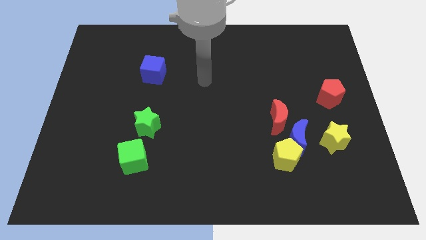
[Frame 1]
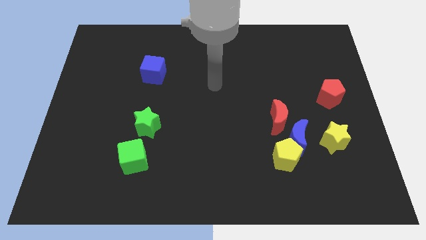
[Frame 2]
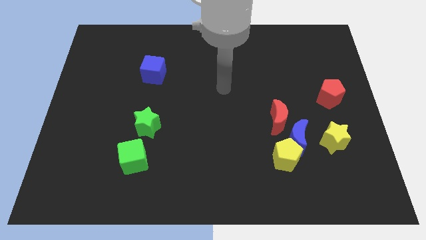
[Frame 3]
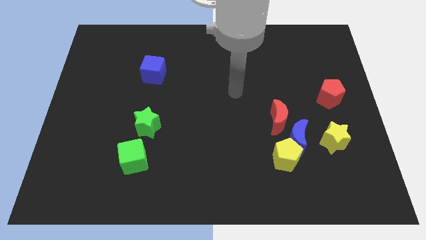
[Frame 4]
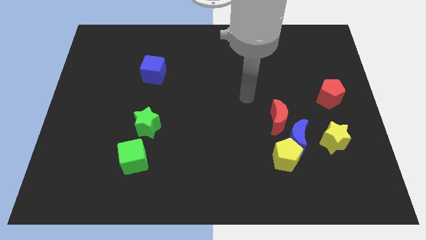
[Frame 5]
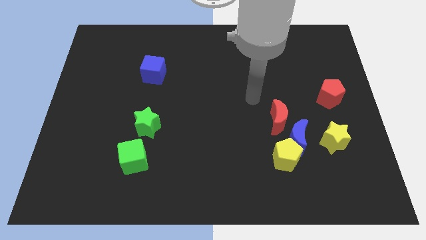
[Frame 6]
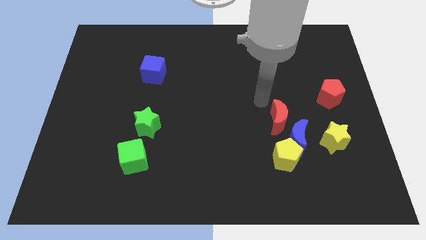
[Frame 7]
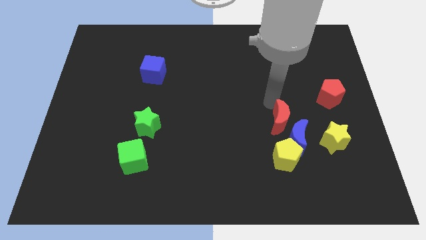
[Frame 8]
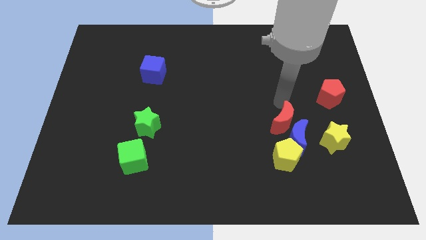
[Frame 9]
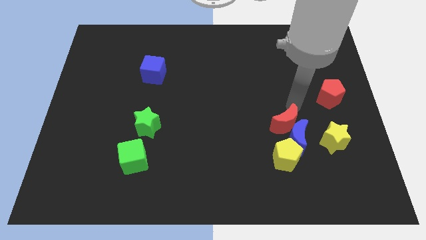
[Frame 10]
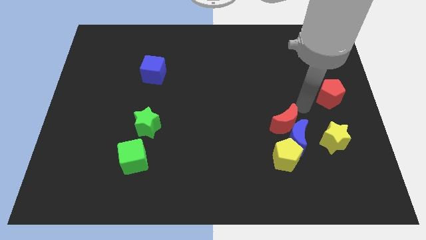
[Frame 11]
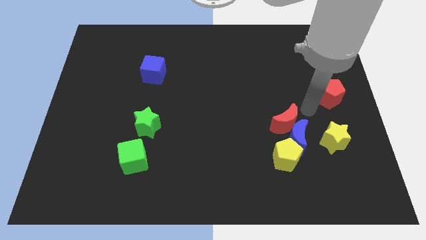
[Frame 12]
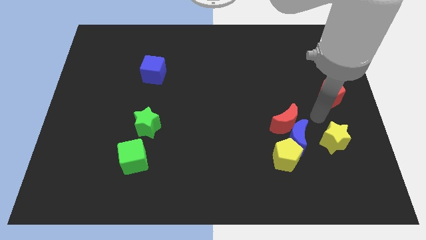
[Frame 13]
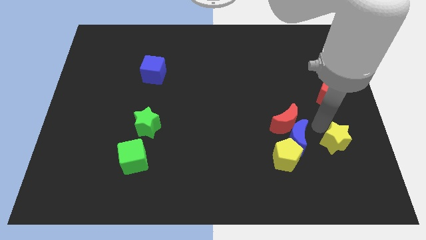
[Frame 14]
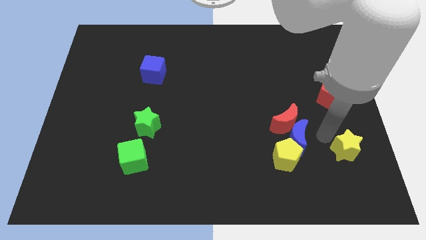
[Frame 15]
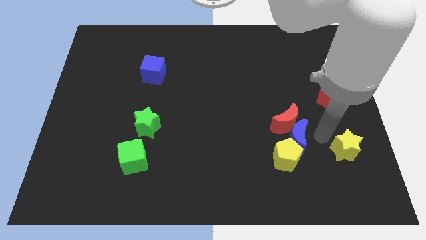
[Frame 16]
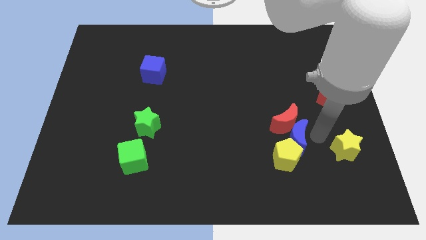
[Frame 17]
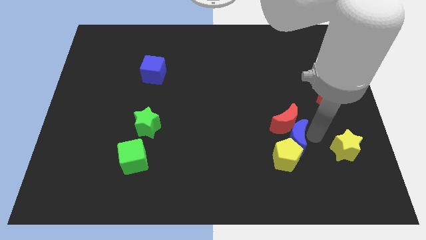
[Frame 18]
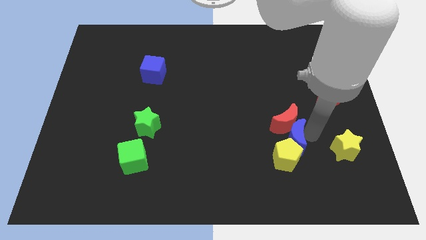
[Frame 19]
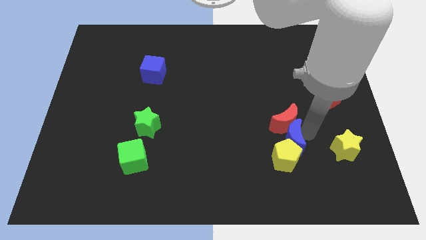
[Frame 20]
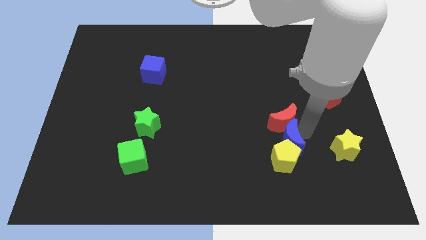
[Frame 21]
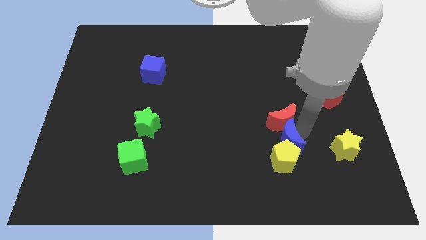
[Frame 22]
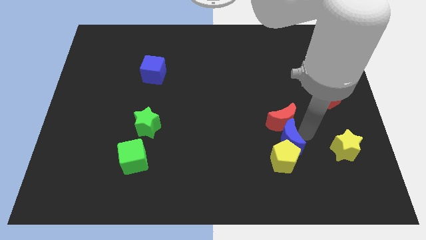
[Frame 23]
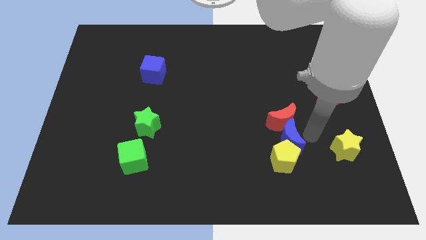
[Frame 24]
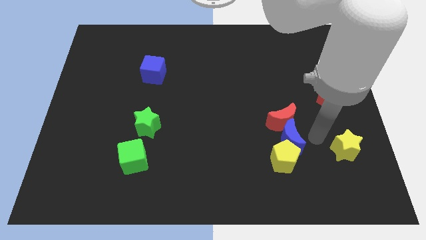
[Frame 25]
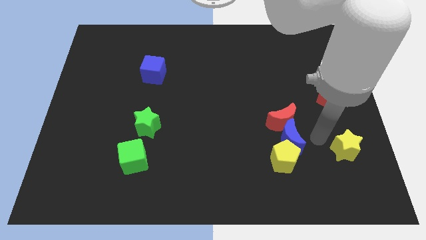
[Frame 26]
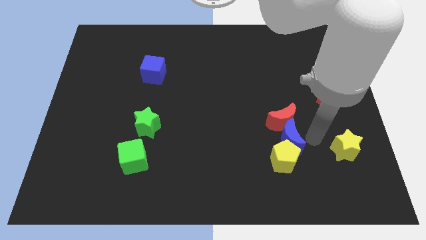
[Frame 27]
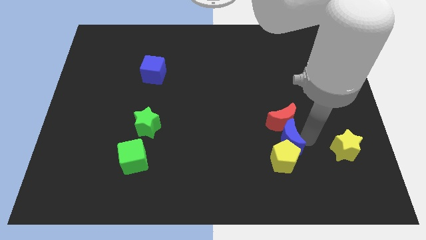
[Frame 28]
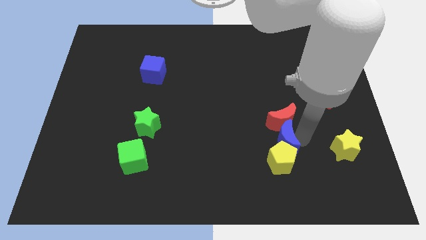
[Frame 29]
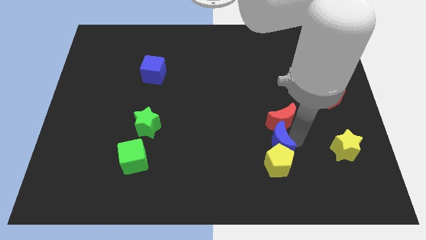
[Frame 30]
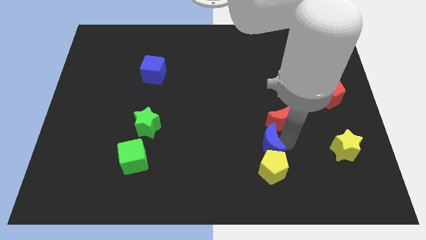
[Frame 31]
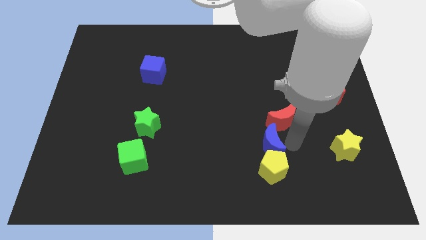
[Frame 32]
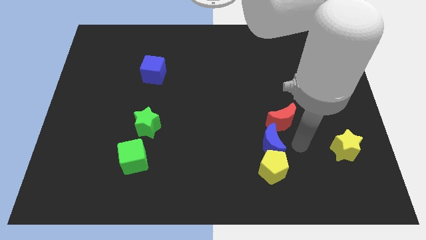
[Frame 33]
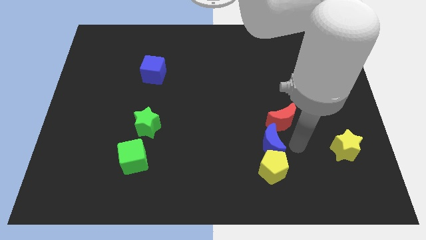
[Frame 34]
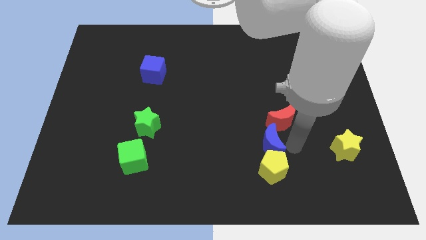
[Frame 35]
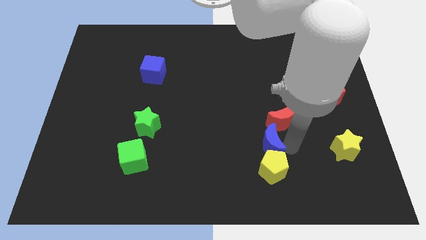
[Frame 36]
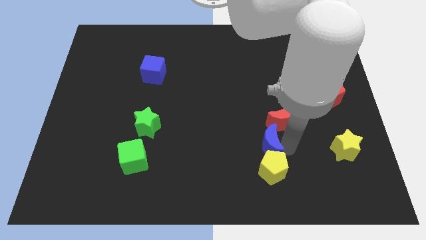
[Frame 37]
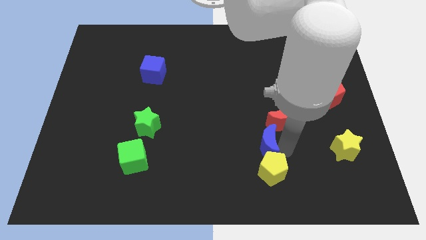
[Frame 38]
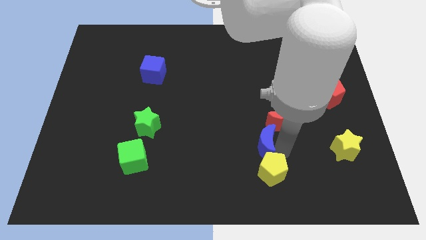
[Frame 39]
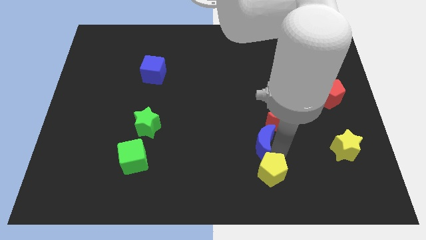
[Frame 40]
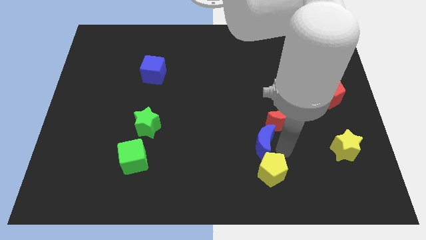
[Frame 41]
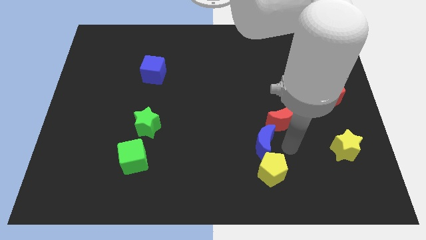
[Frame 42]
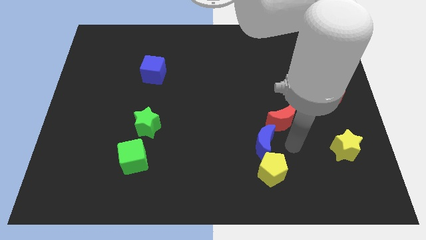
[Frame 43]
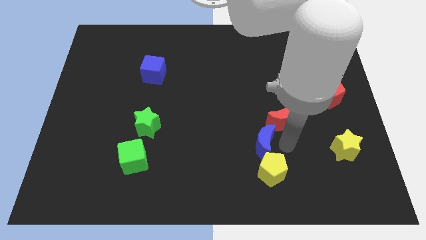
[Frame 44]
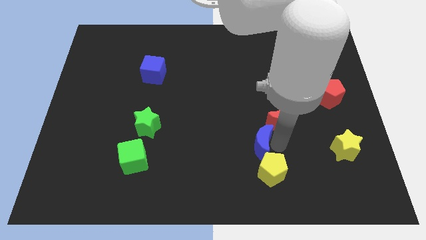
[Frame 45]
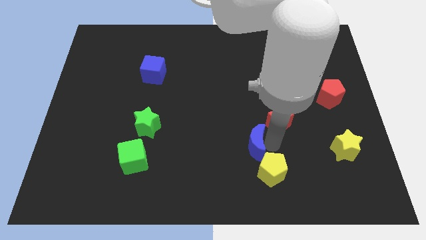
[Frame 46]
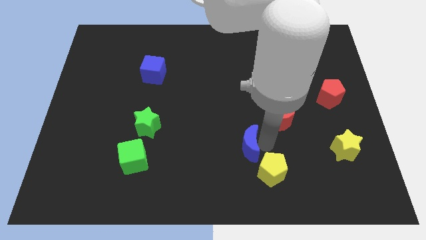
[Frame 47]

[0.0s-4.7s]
separate the blue moon from the yellow pentagon, red moon, and yellow star

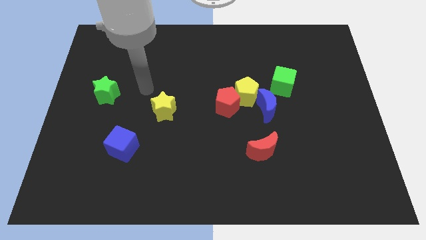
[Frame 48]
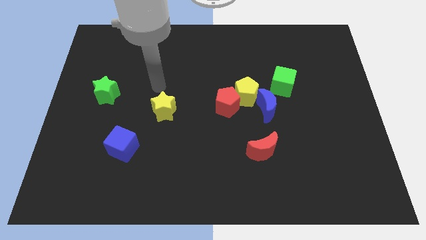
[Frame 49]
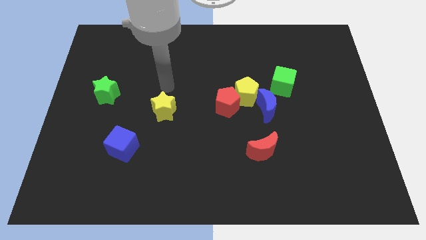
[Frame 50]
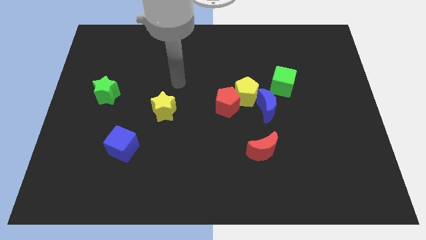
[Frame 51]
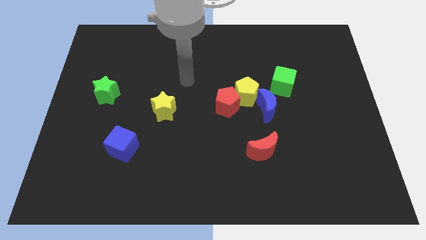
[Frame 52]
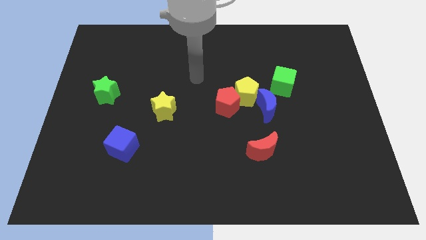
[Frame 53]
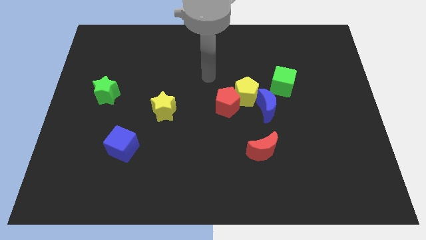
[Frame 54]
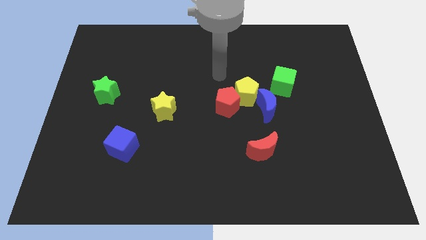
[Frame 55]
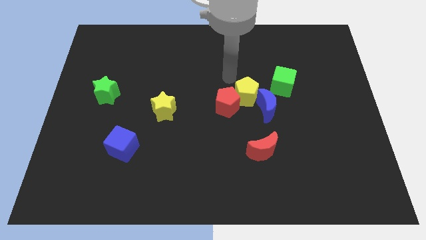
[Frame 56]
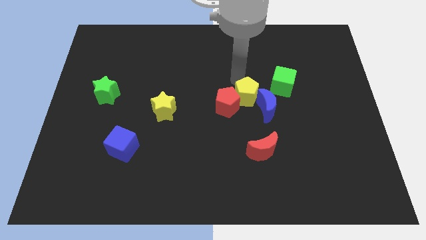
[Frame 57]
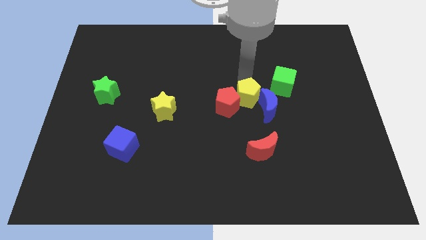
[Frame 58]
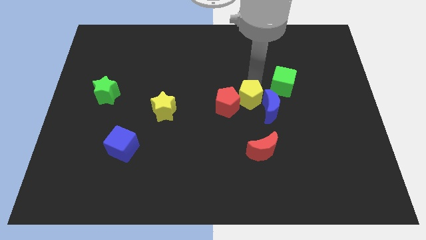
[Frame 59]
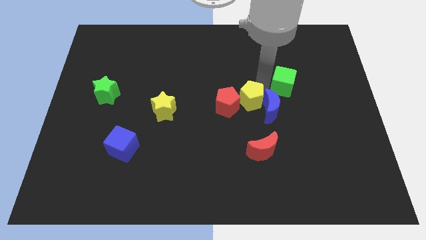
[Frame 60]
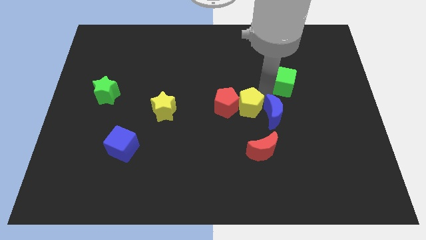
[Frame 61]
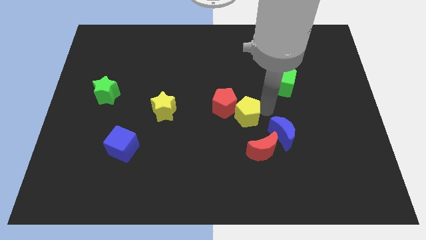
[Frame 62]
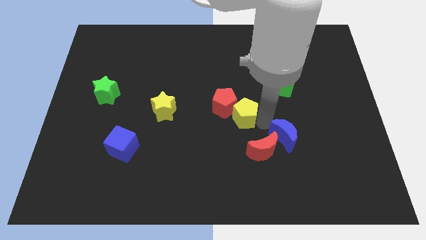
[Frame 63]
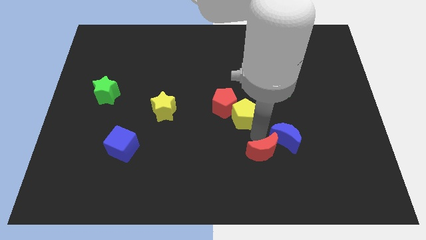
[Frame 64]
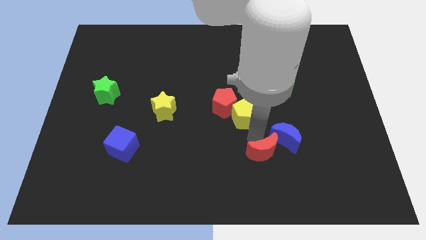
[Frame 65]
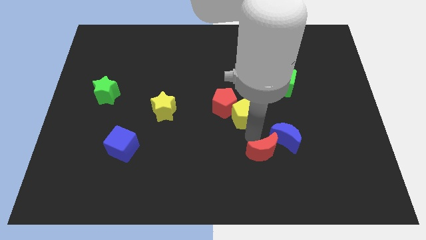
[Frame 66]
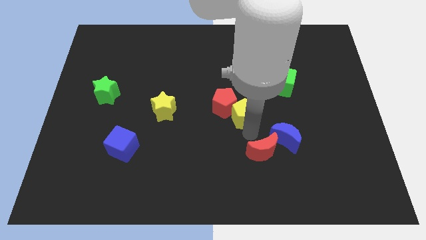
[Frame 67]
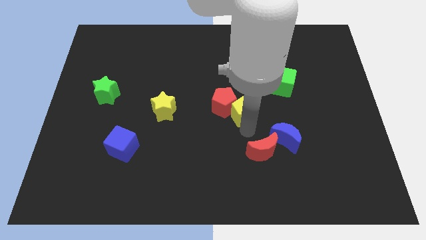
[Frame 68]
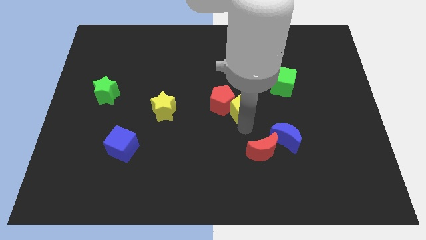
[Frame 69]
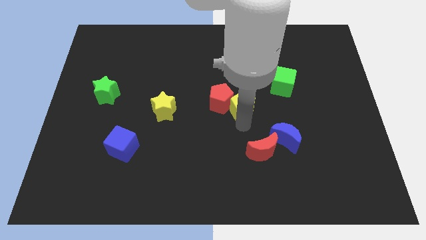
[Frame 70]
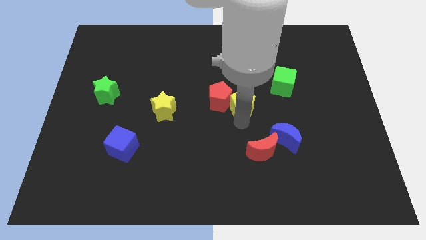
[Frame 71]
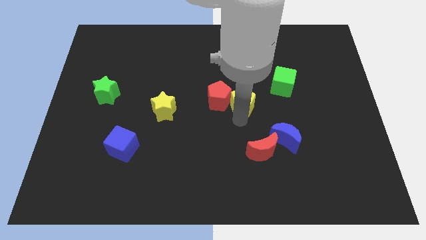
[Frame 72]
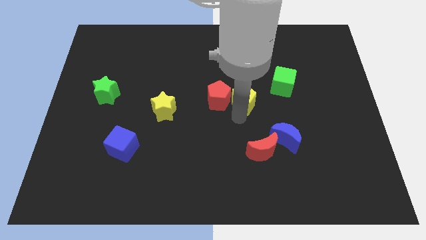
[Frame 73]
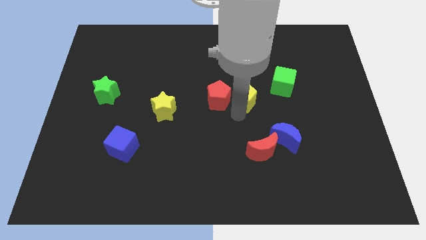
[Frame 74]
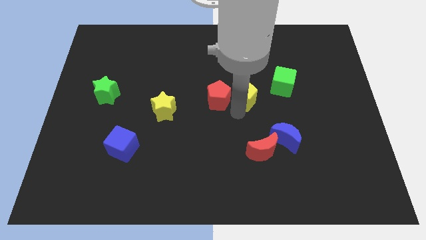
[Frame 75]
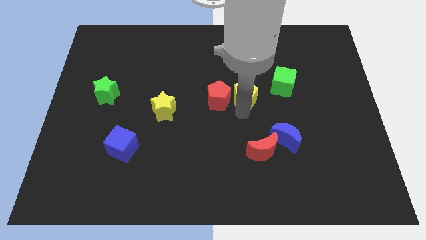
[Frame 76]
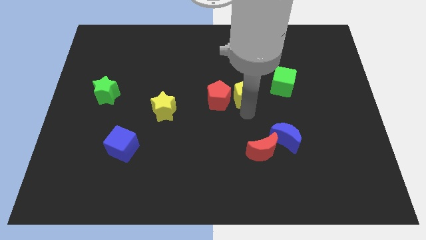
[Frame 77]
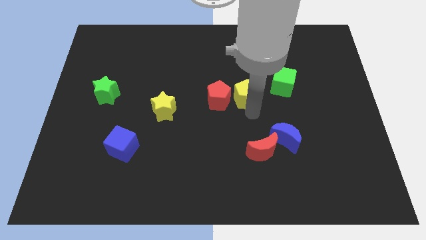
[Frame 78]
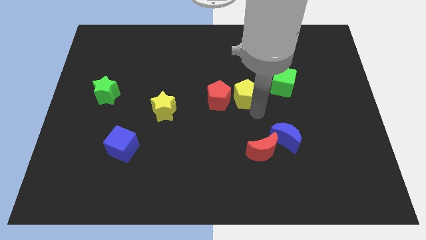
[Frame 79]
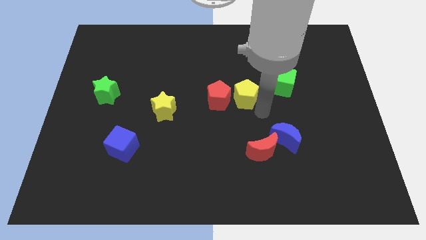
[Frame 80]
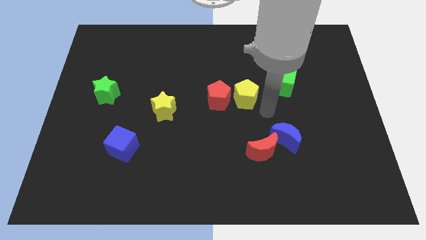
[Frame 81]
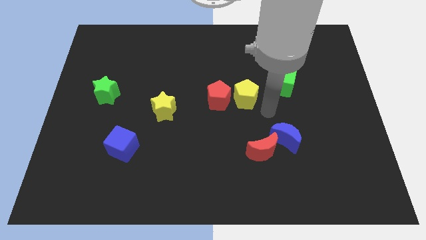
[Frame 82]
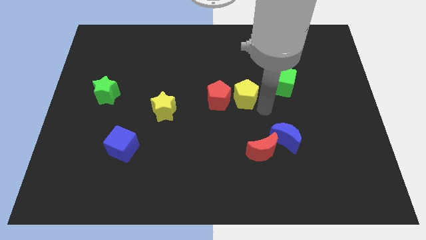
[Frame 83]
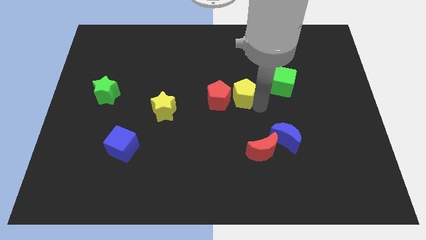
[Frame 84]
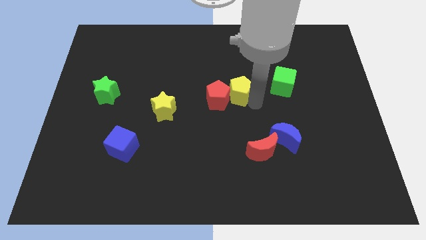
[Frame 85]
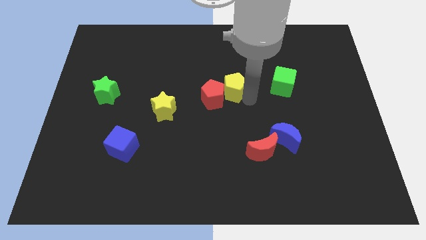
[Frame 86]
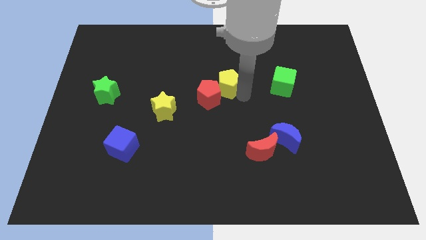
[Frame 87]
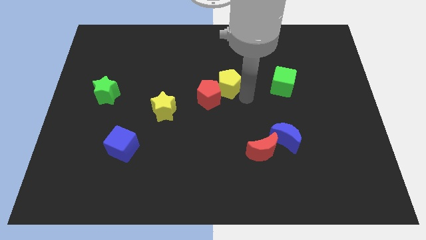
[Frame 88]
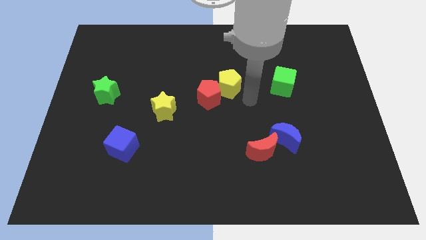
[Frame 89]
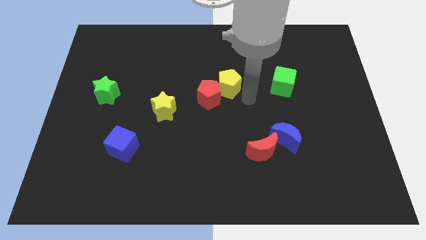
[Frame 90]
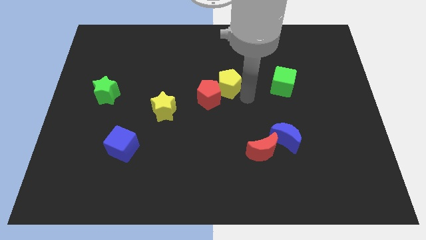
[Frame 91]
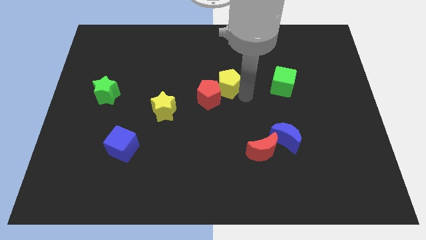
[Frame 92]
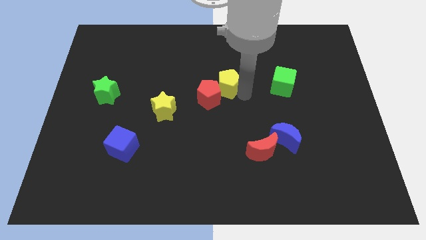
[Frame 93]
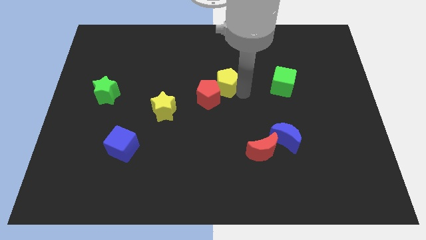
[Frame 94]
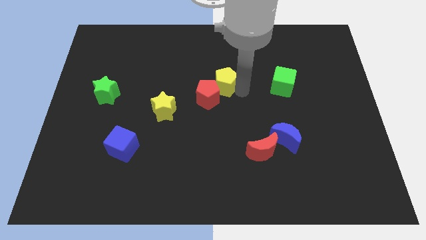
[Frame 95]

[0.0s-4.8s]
move the yellow pentagon away from the red pentagon, blue moon, and green cube

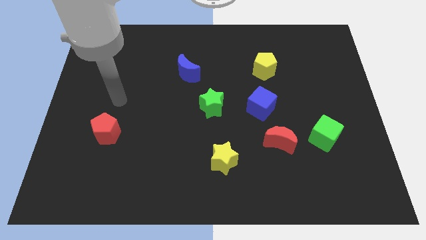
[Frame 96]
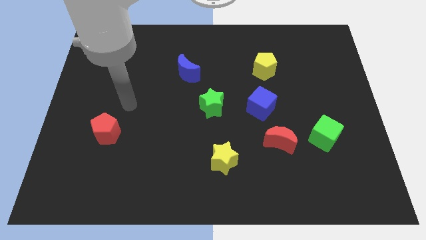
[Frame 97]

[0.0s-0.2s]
pull the green cube apart from the red moon
